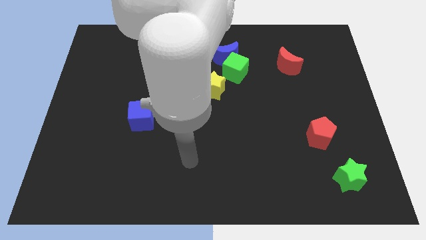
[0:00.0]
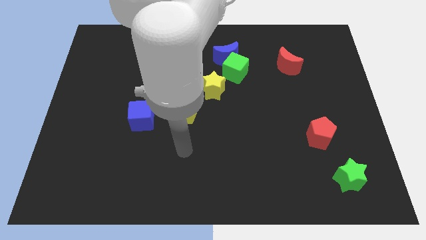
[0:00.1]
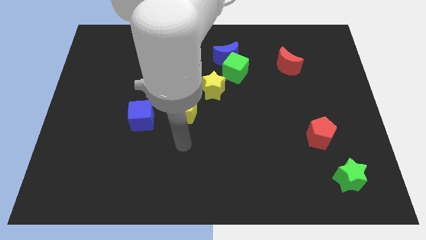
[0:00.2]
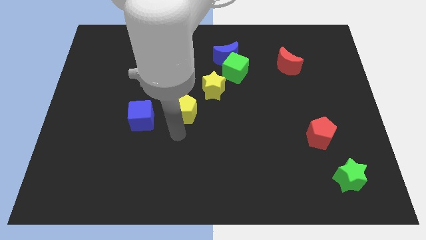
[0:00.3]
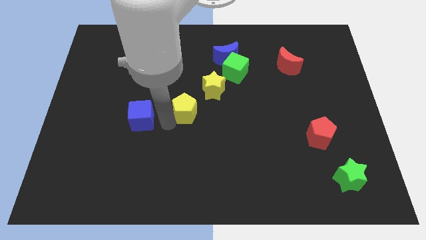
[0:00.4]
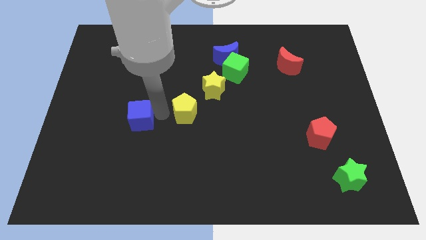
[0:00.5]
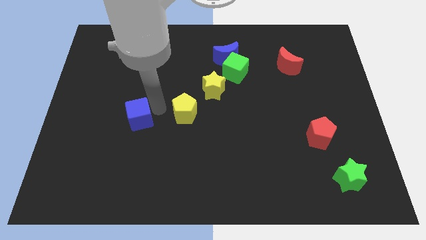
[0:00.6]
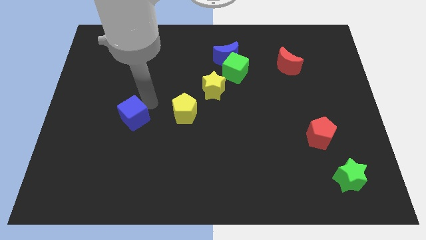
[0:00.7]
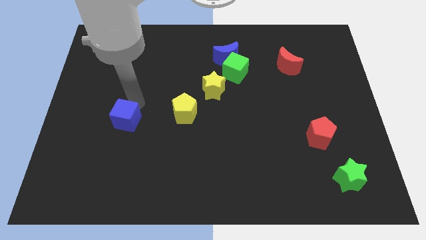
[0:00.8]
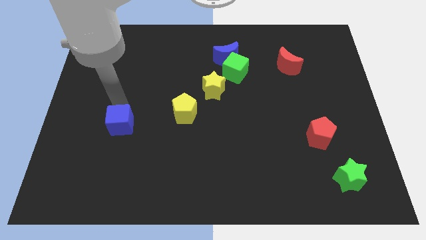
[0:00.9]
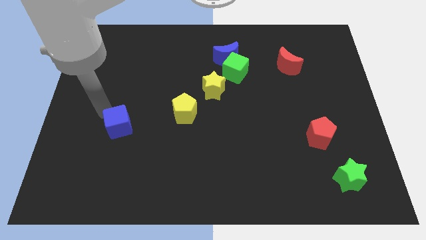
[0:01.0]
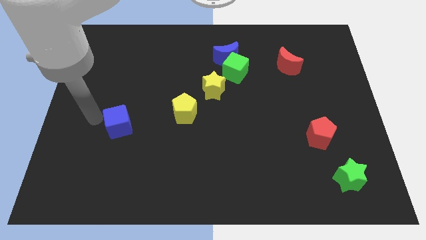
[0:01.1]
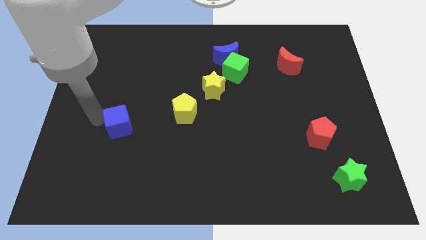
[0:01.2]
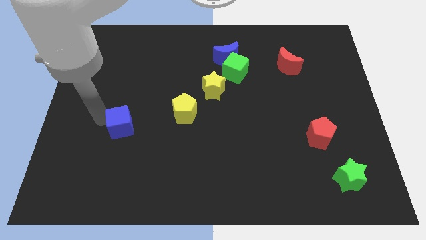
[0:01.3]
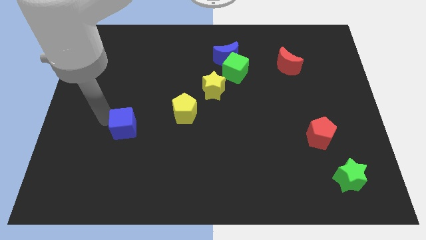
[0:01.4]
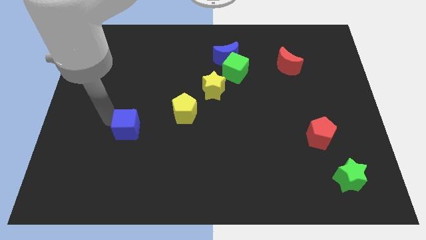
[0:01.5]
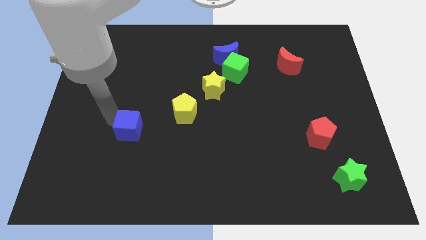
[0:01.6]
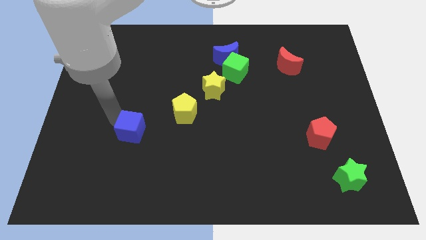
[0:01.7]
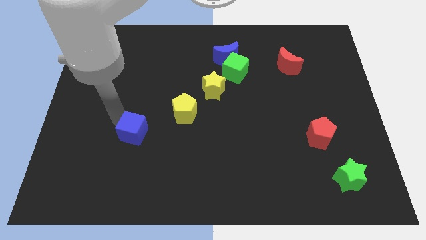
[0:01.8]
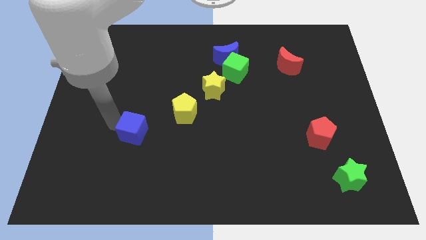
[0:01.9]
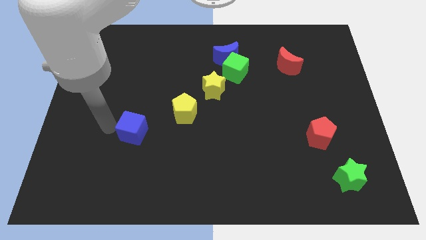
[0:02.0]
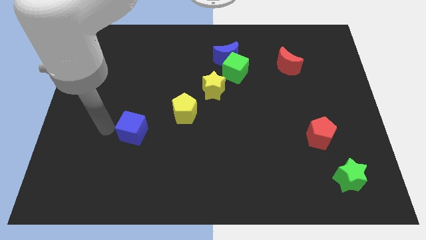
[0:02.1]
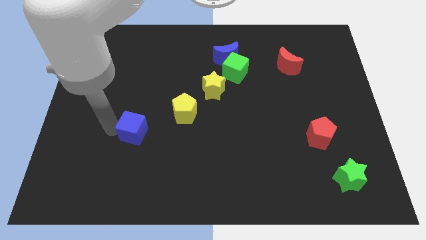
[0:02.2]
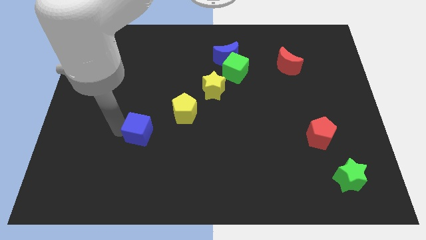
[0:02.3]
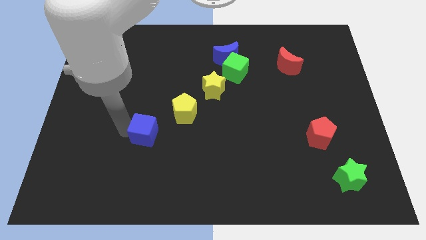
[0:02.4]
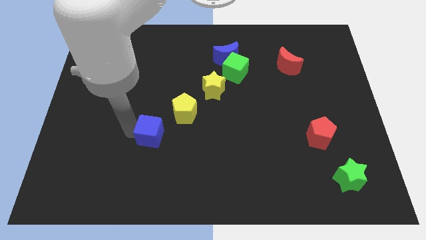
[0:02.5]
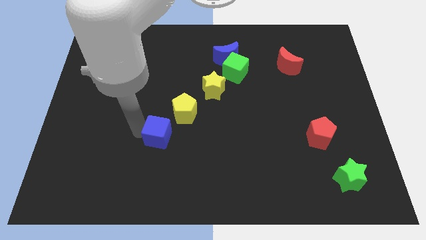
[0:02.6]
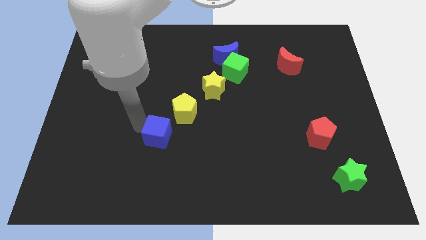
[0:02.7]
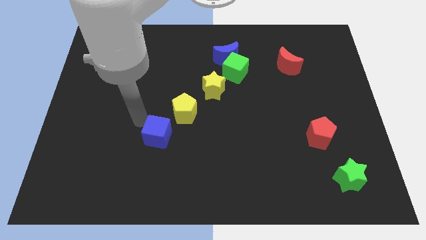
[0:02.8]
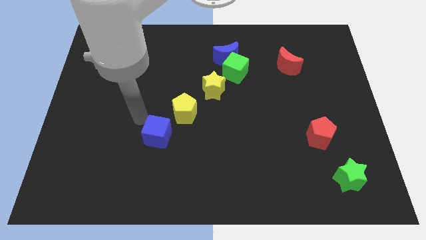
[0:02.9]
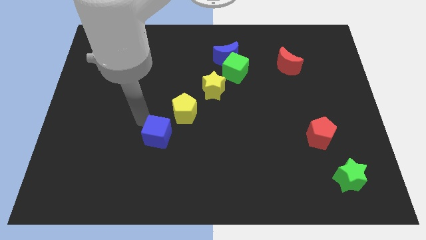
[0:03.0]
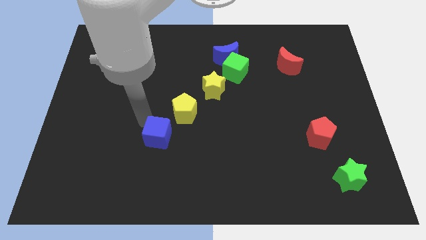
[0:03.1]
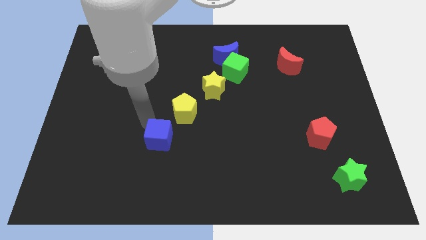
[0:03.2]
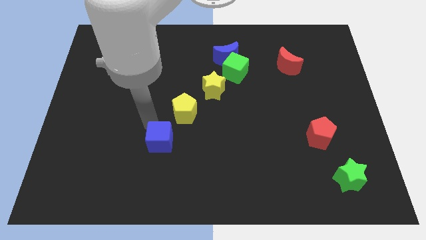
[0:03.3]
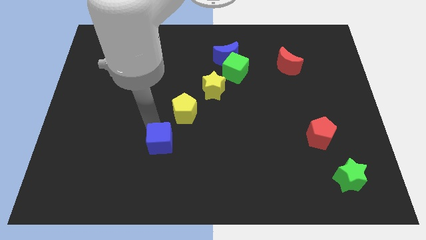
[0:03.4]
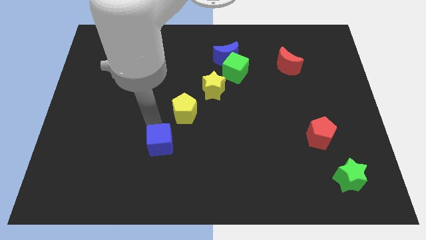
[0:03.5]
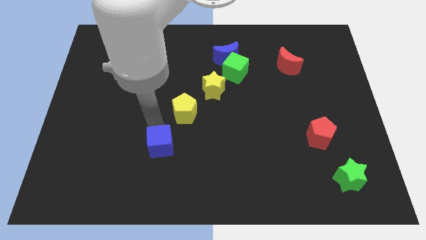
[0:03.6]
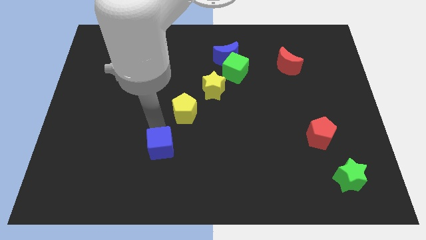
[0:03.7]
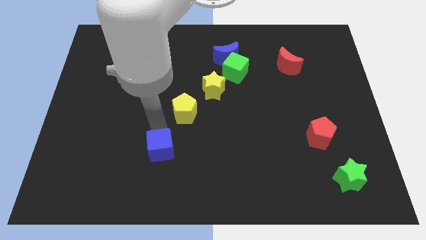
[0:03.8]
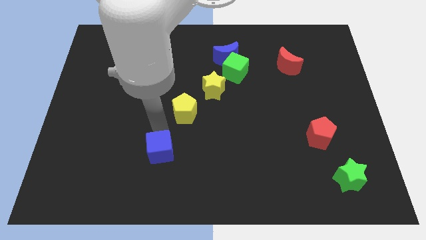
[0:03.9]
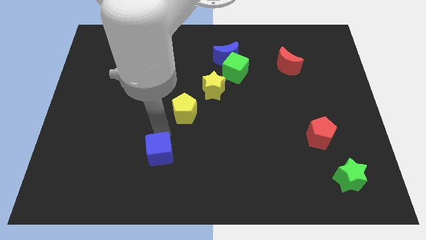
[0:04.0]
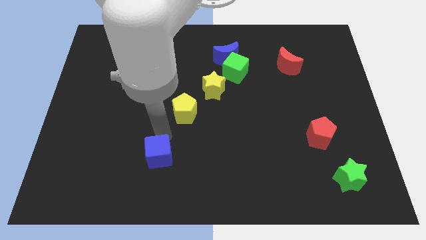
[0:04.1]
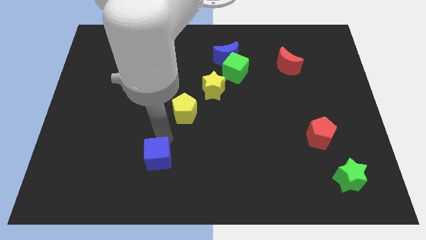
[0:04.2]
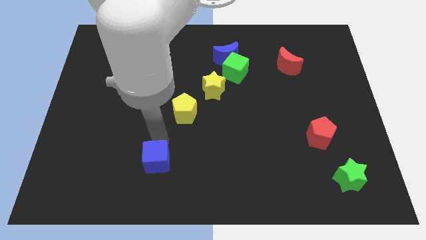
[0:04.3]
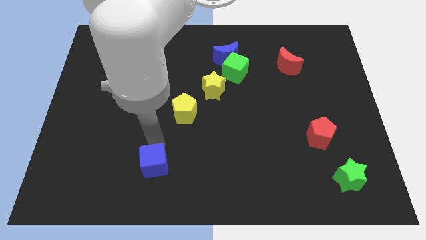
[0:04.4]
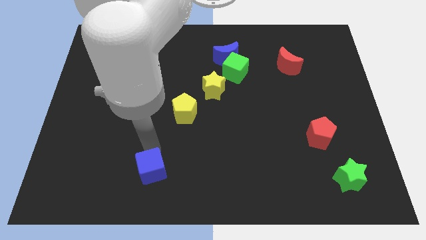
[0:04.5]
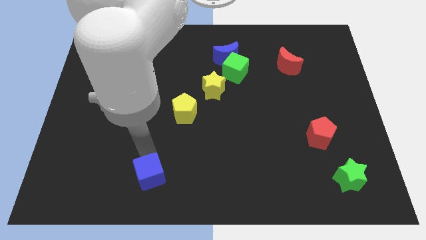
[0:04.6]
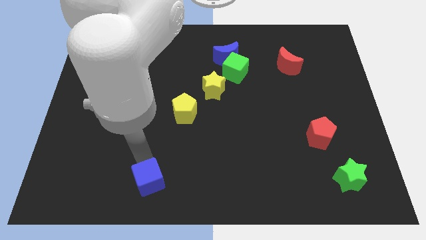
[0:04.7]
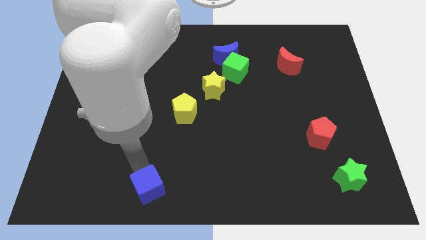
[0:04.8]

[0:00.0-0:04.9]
move the blue cube to the bottom side

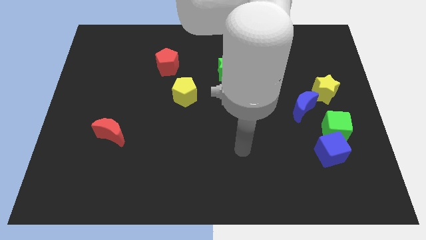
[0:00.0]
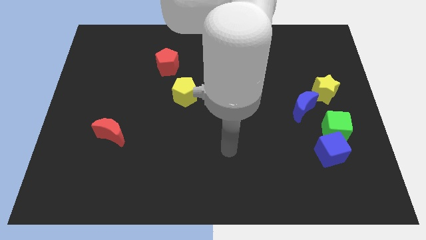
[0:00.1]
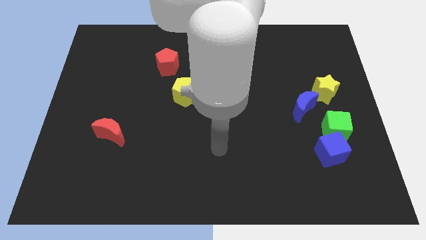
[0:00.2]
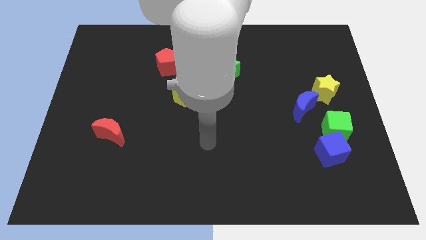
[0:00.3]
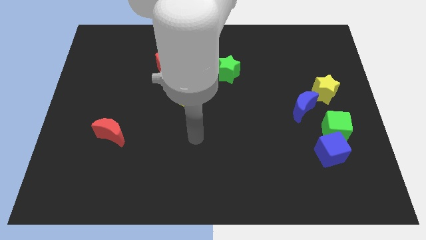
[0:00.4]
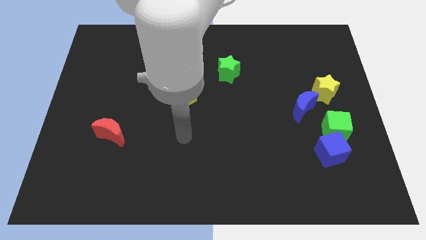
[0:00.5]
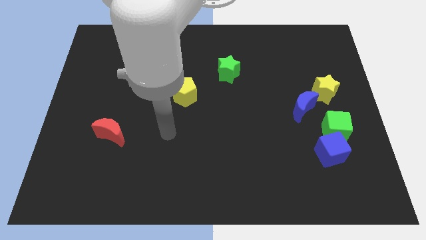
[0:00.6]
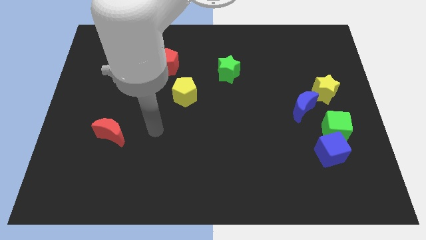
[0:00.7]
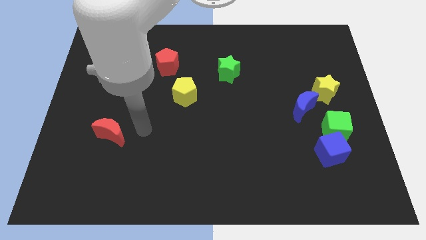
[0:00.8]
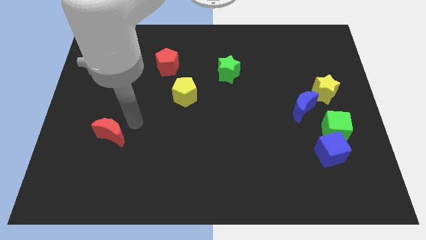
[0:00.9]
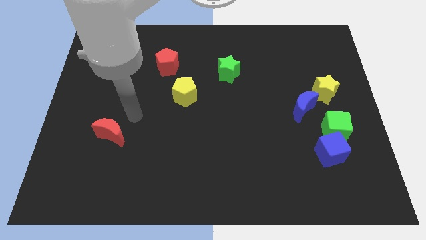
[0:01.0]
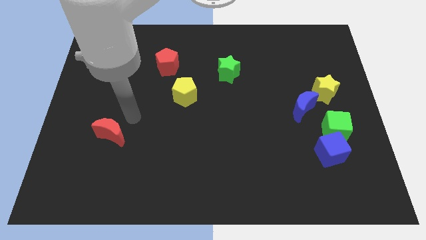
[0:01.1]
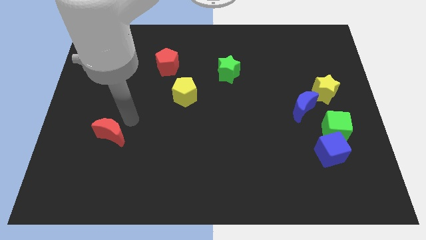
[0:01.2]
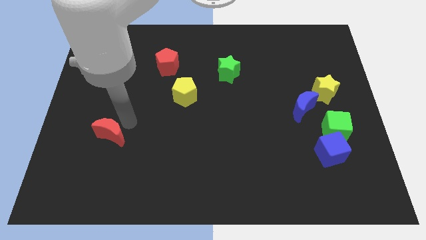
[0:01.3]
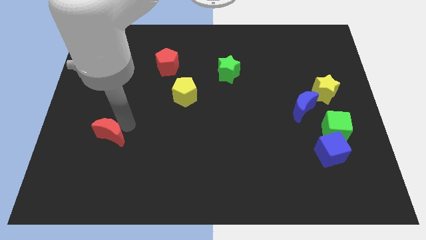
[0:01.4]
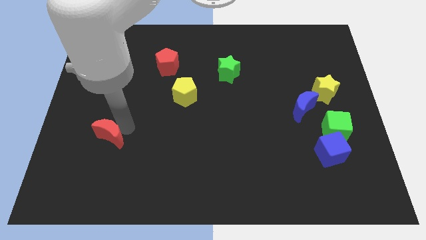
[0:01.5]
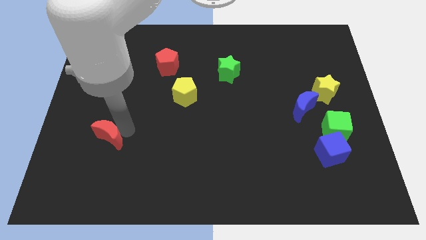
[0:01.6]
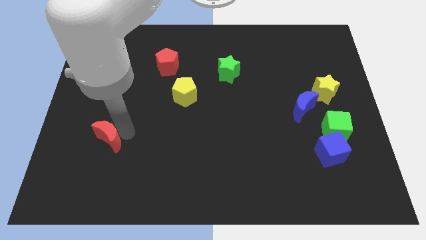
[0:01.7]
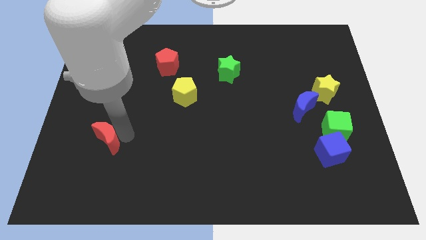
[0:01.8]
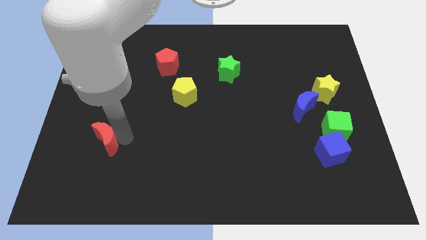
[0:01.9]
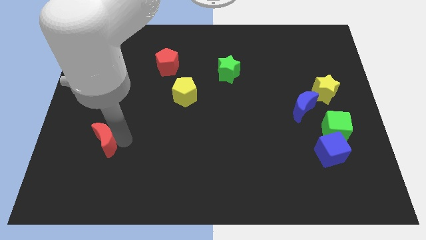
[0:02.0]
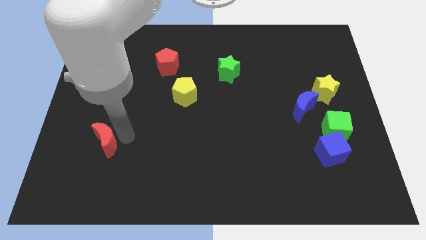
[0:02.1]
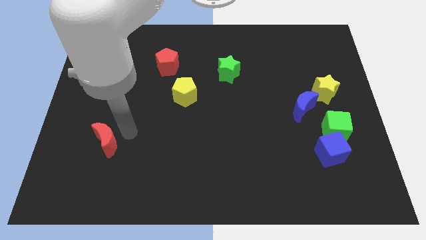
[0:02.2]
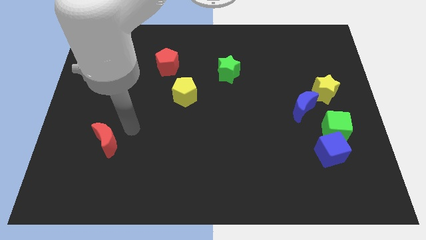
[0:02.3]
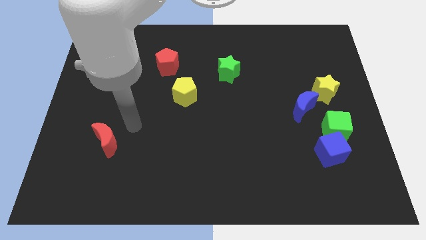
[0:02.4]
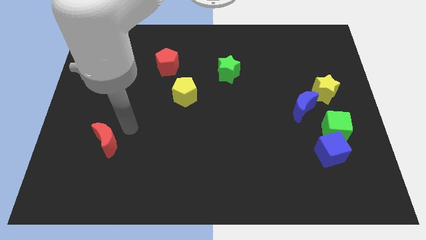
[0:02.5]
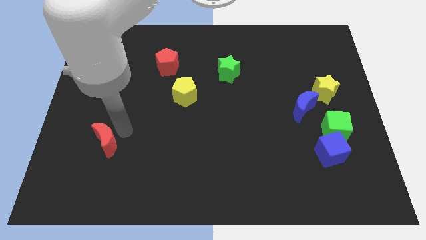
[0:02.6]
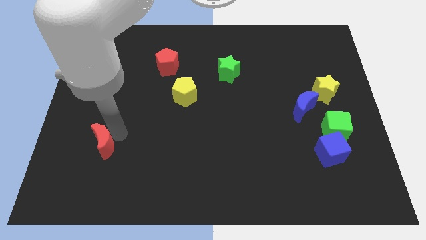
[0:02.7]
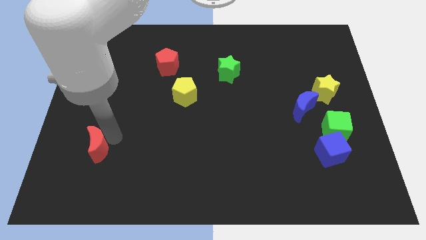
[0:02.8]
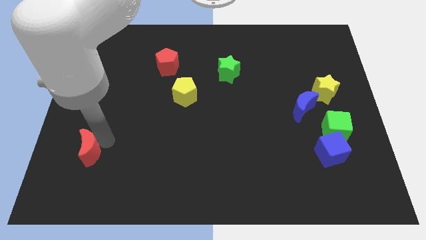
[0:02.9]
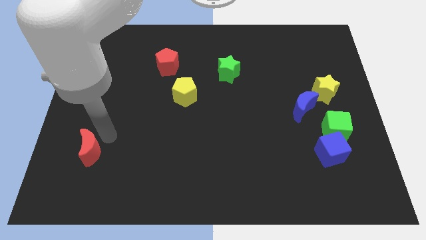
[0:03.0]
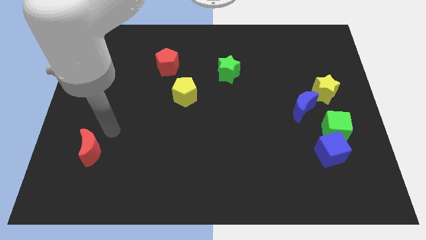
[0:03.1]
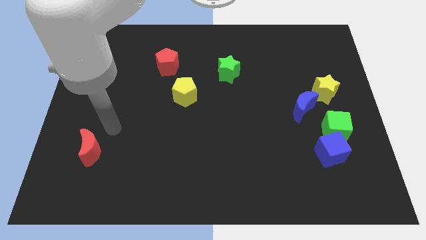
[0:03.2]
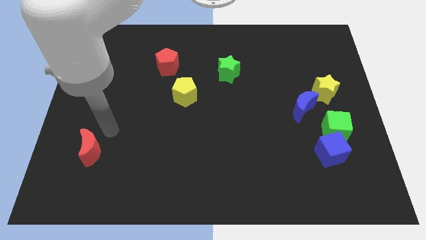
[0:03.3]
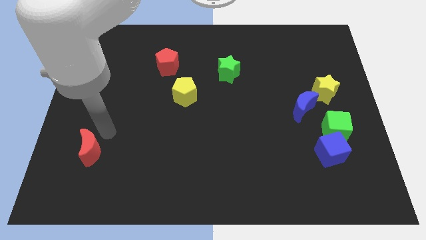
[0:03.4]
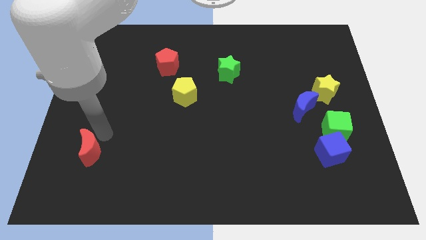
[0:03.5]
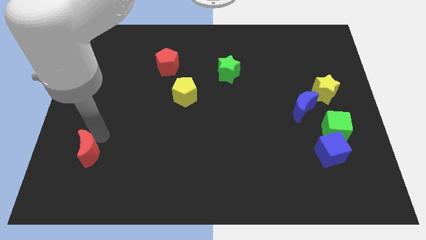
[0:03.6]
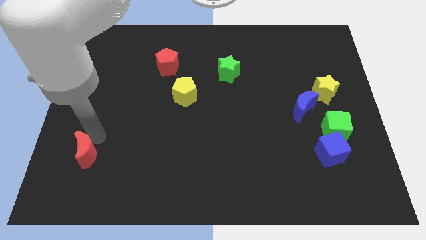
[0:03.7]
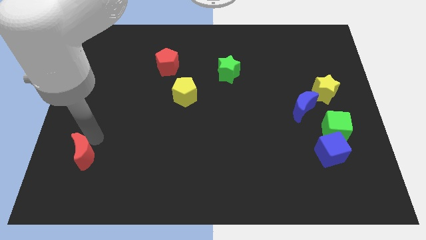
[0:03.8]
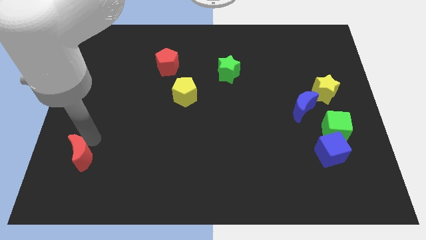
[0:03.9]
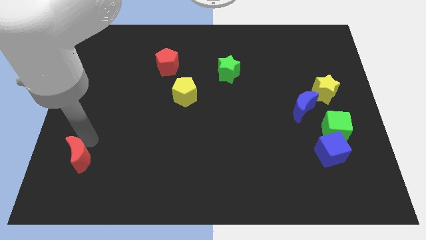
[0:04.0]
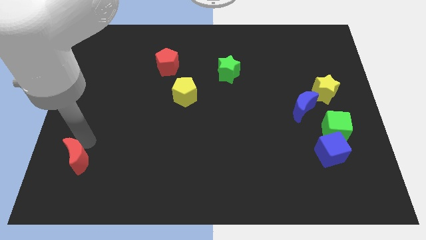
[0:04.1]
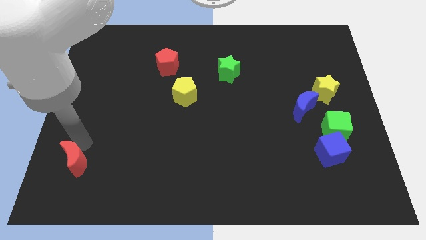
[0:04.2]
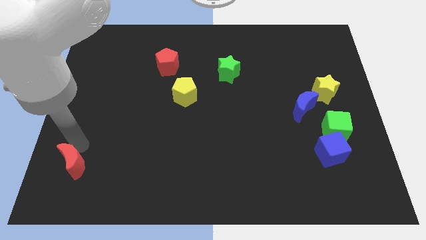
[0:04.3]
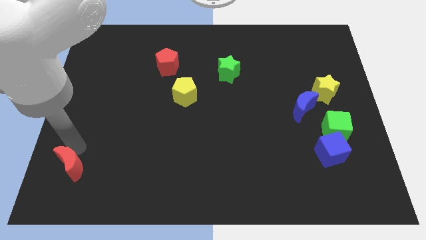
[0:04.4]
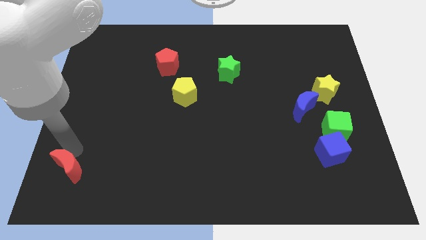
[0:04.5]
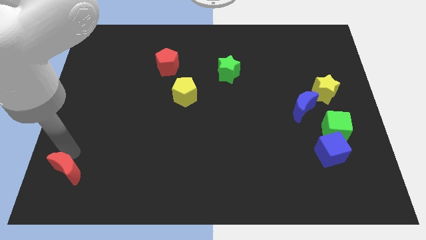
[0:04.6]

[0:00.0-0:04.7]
push the red moon to the lower left corner
